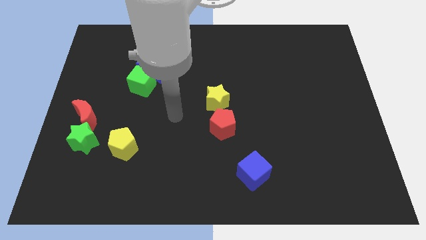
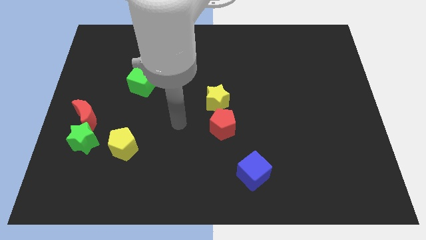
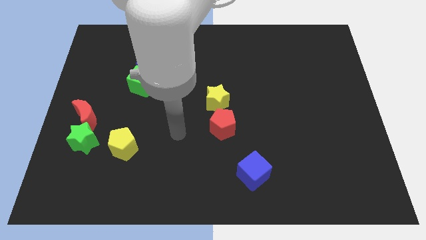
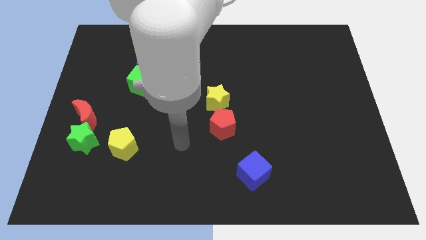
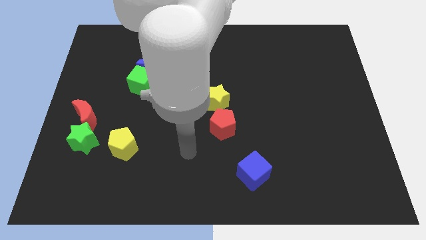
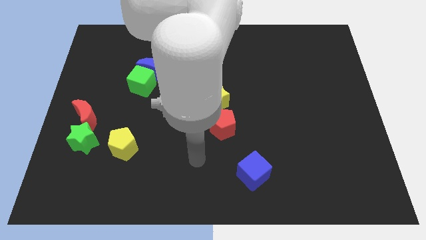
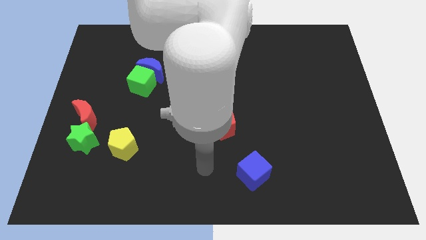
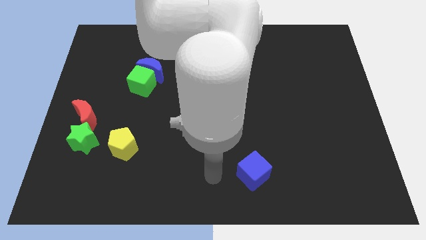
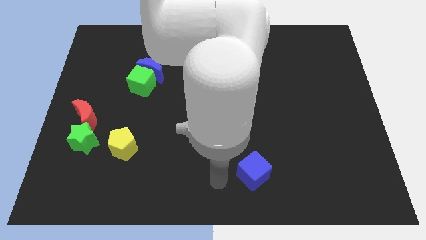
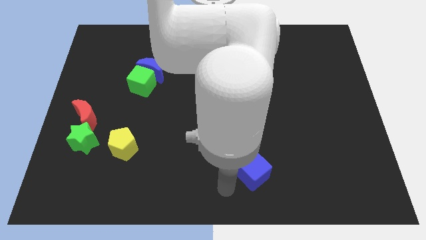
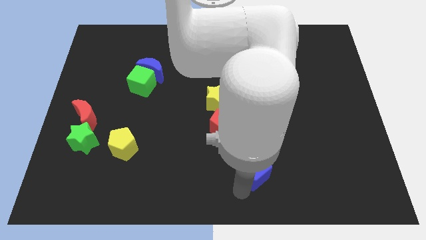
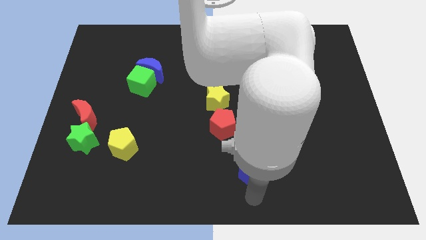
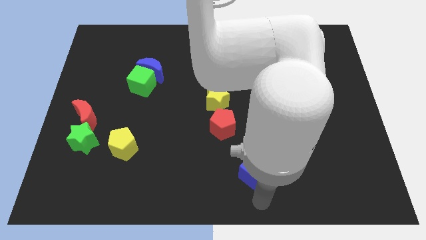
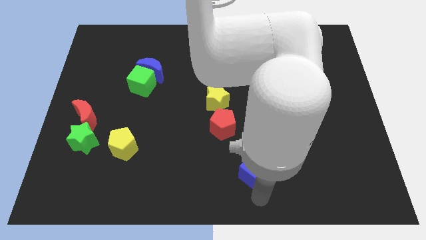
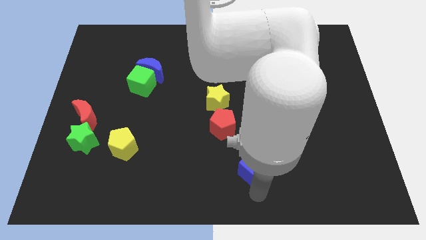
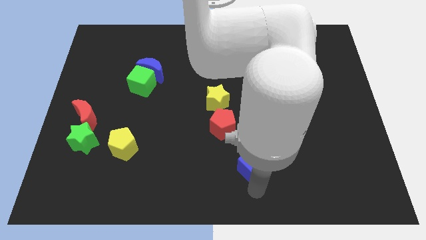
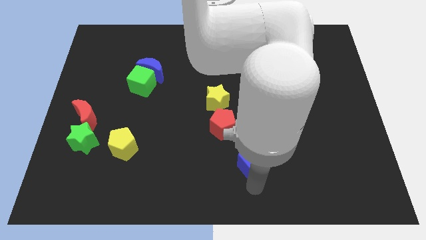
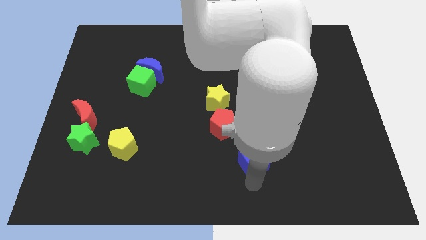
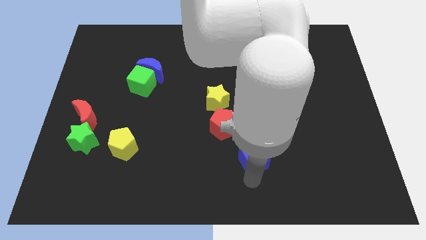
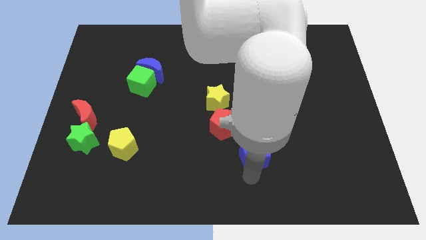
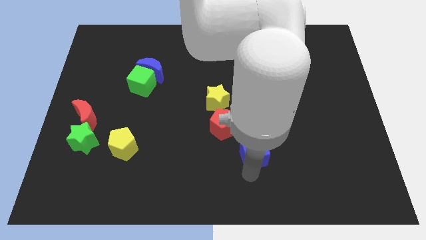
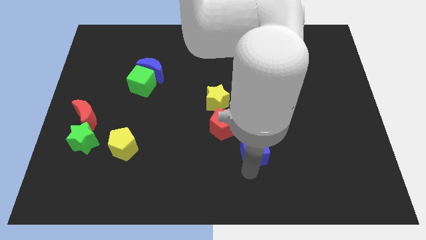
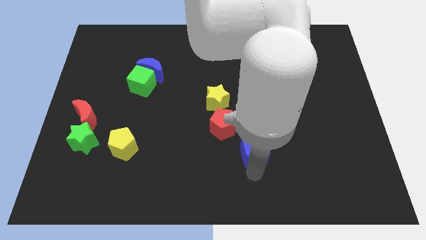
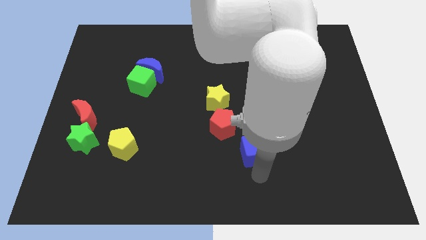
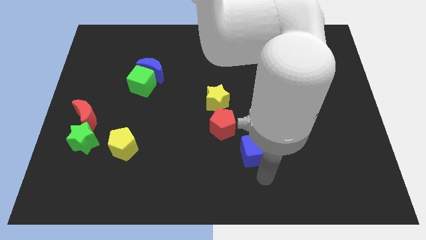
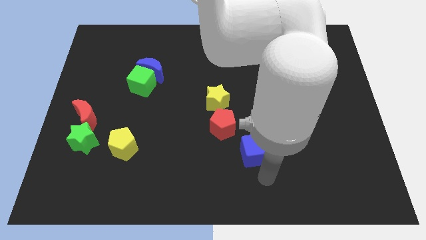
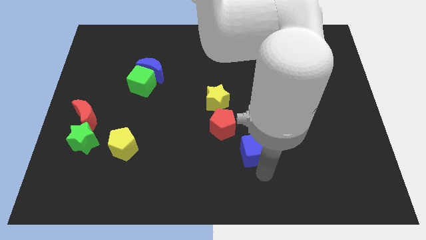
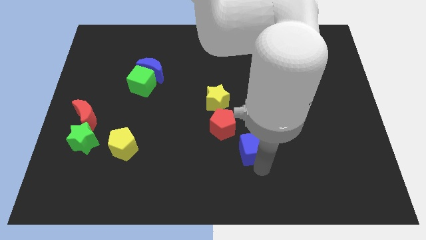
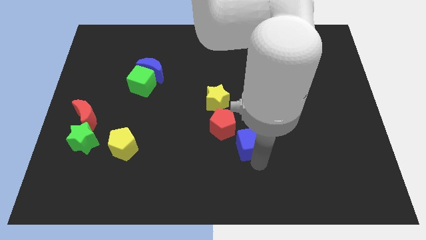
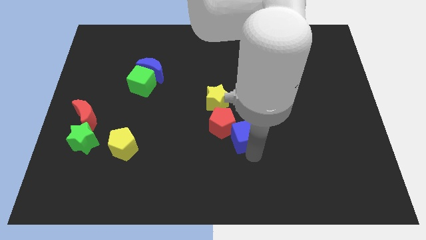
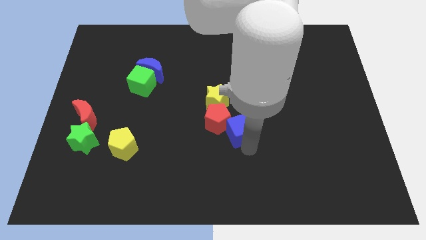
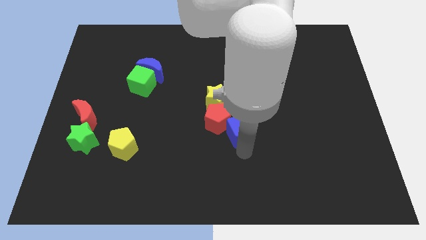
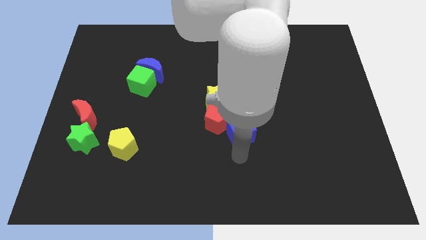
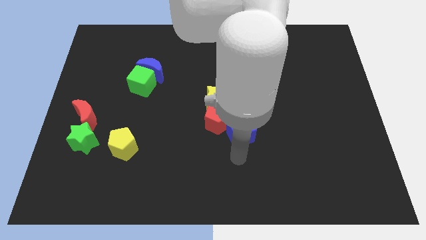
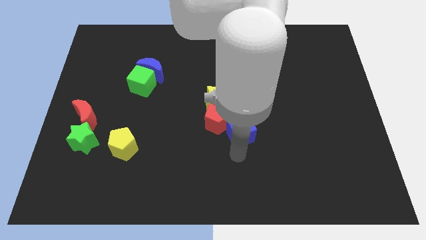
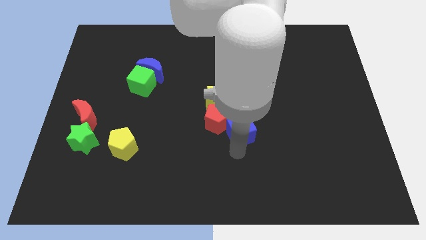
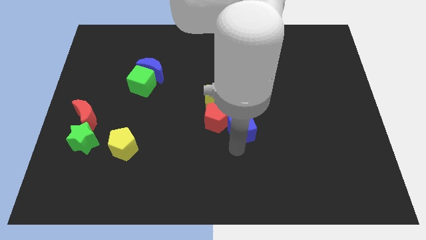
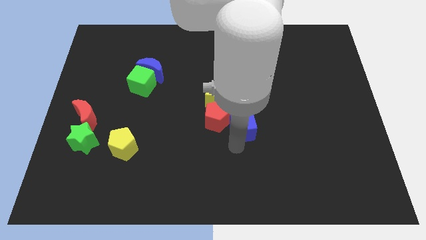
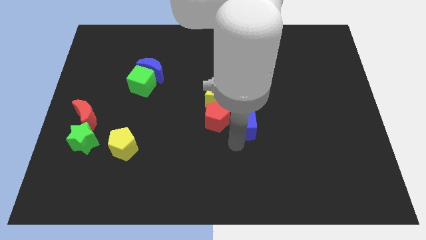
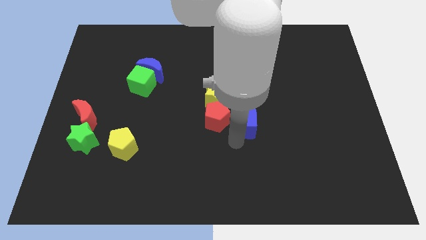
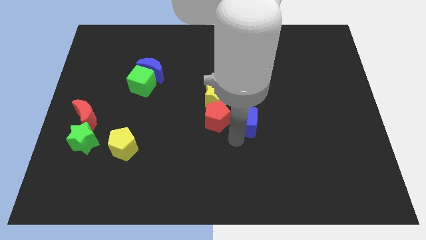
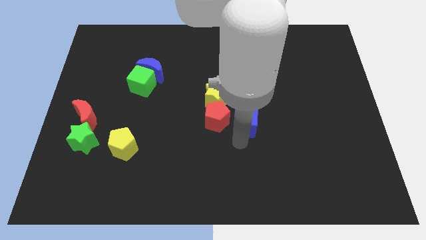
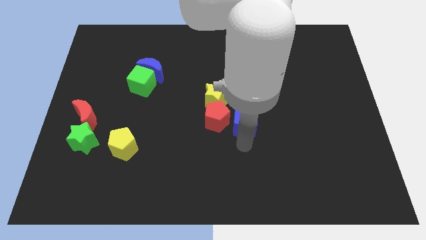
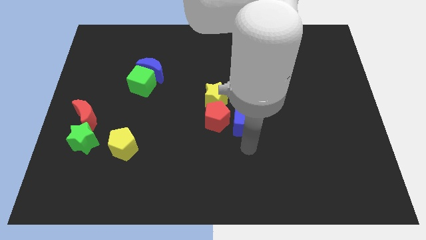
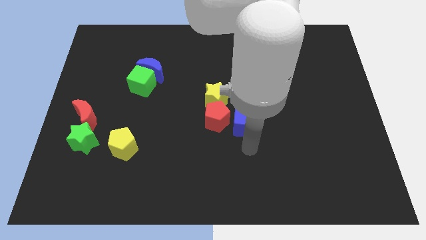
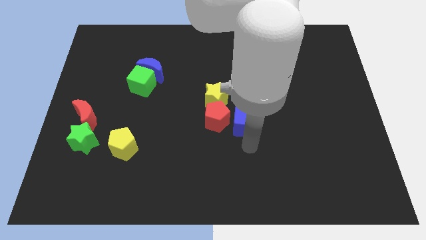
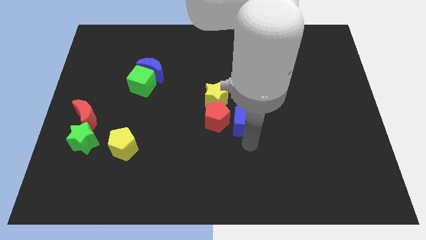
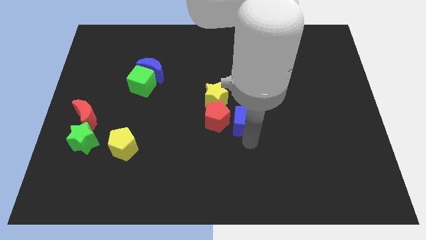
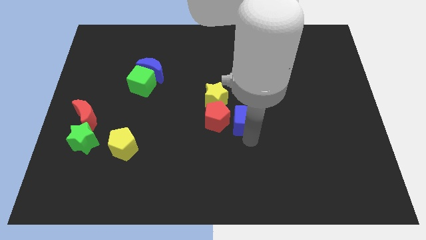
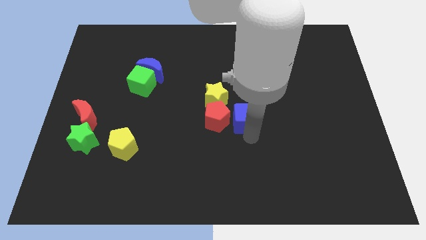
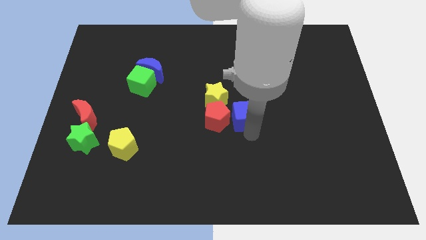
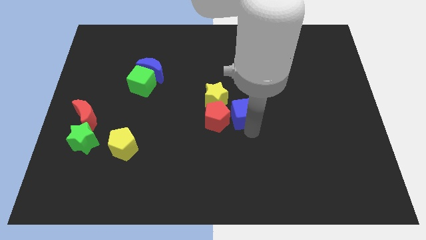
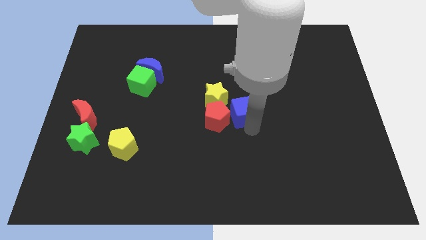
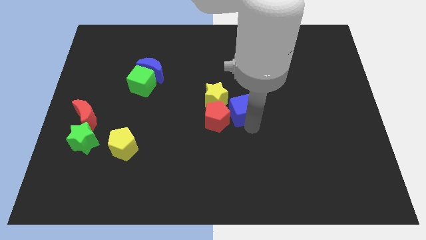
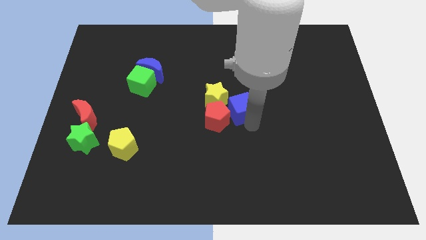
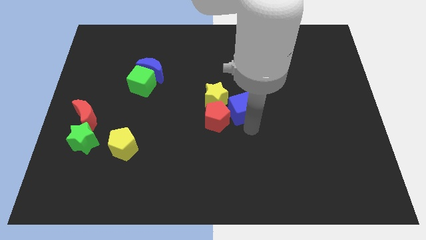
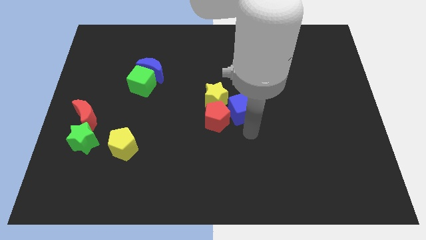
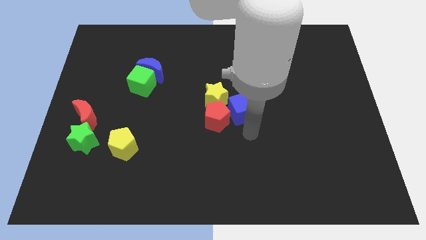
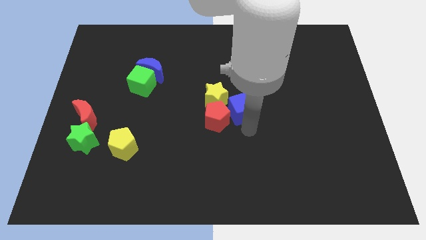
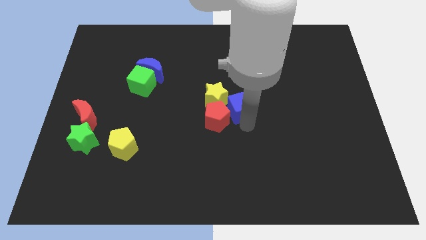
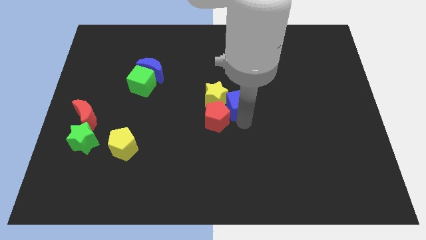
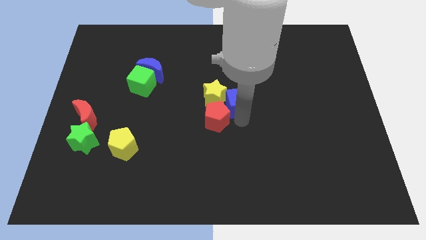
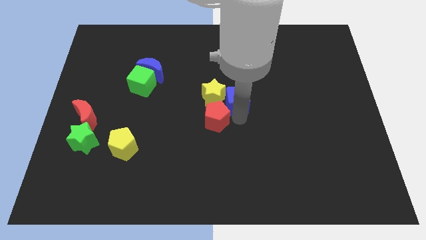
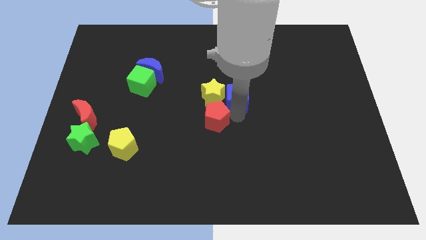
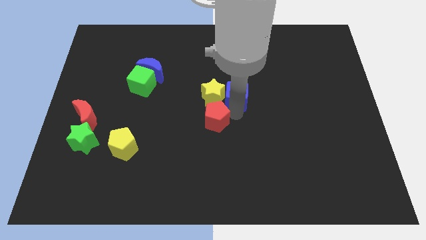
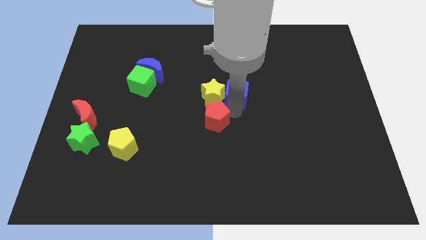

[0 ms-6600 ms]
push the blue cube up

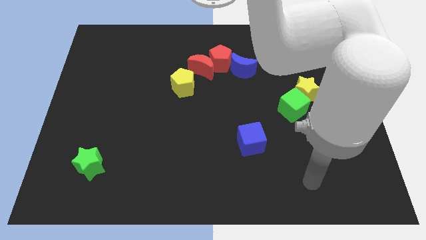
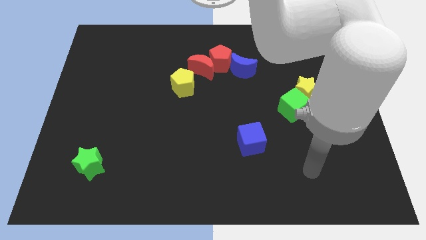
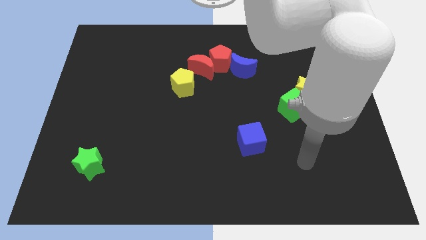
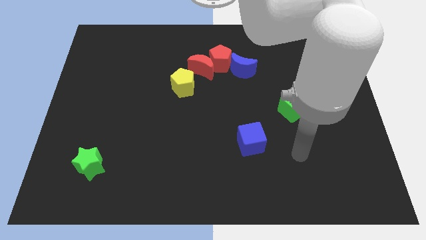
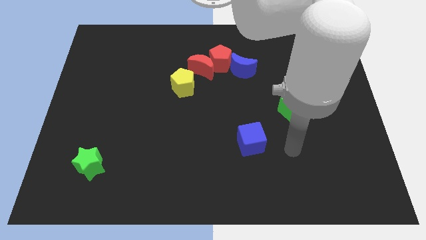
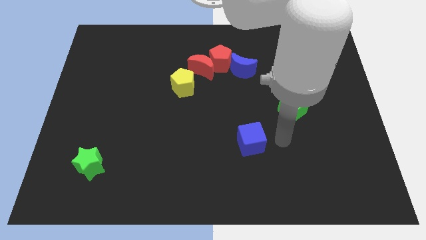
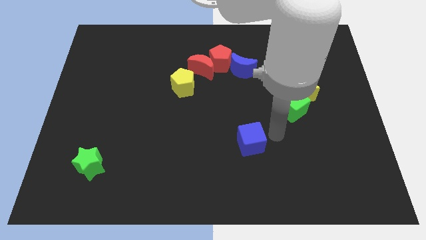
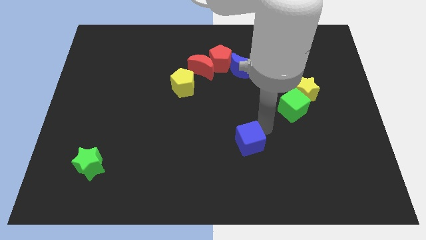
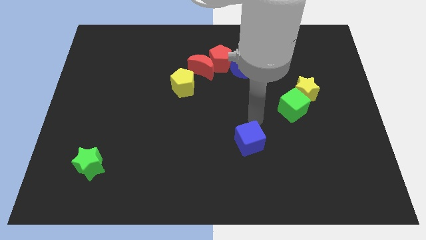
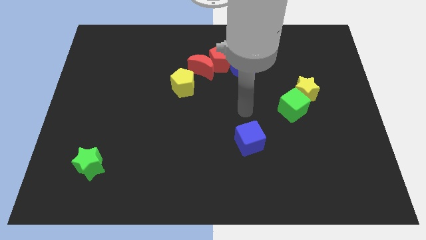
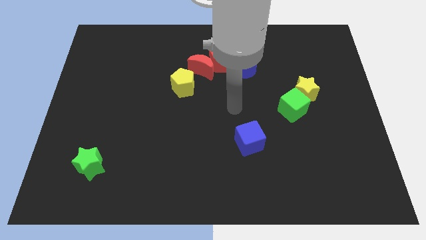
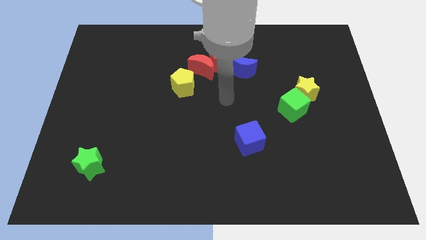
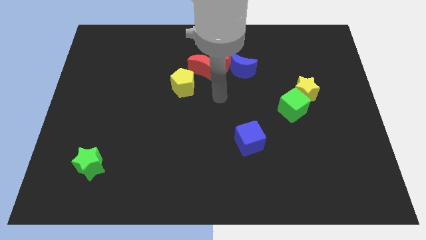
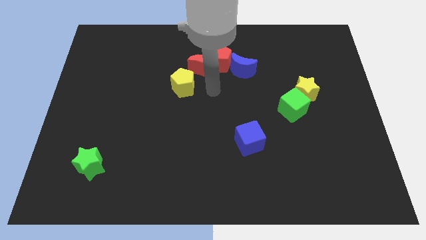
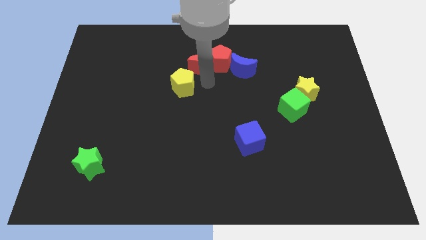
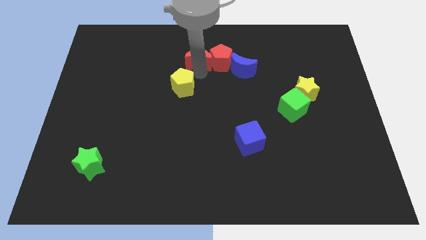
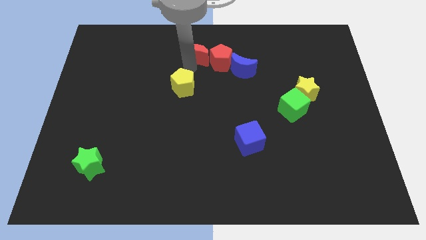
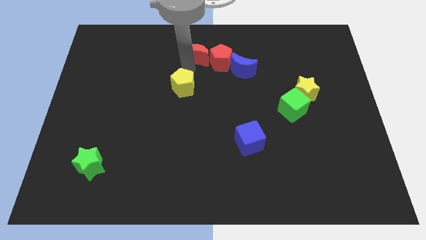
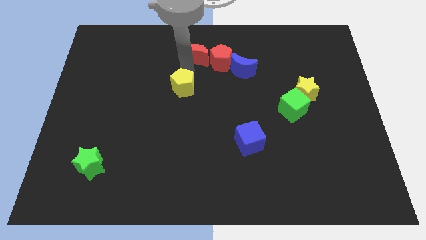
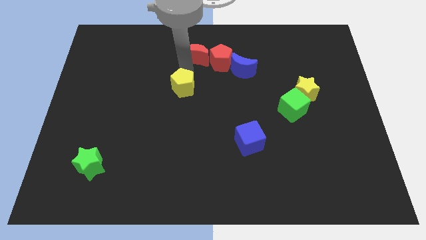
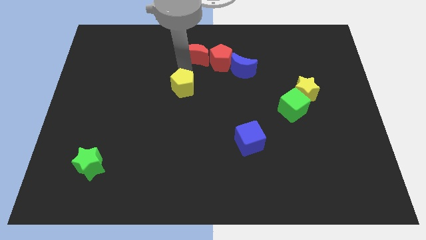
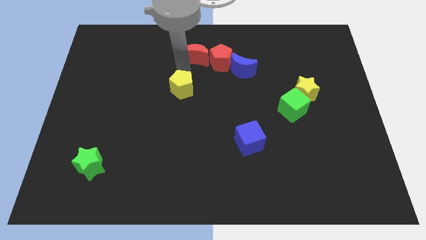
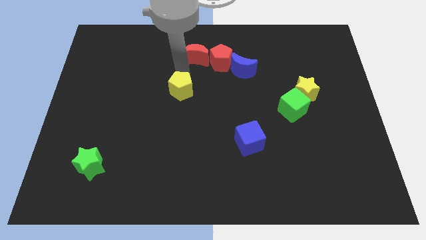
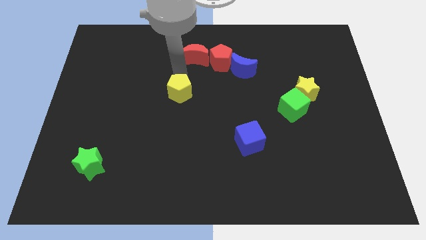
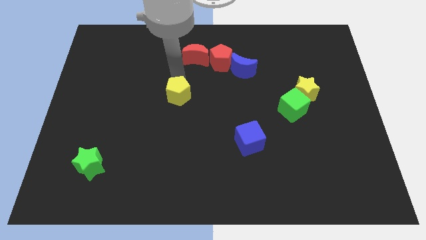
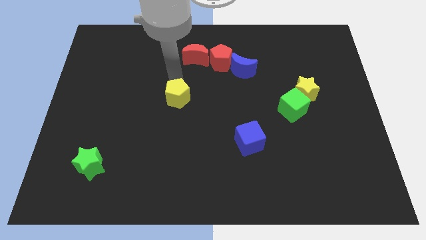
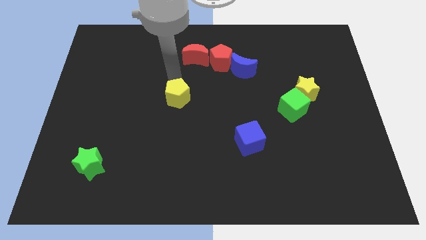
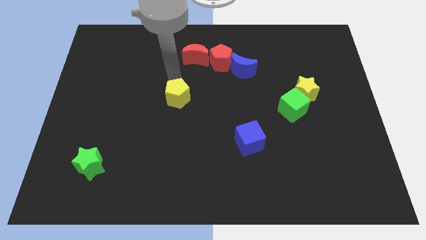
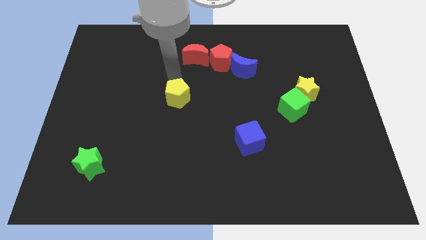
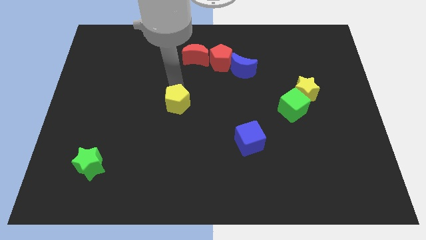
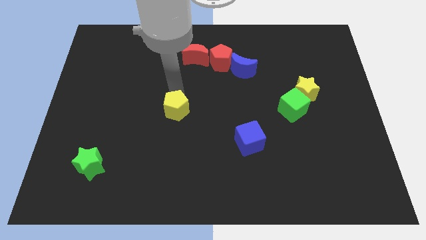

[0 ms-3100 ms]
slide the yellow pentagon down slightly
